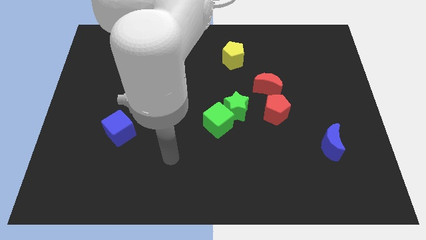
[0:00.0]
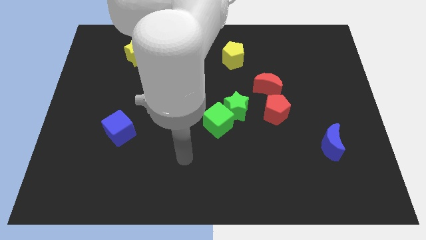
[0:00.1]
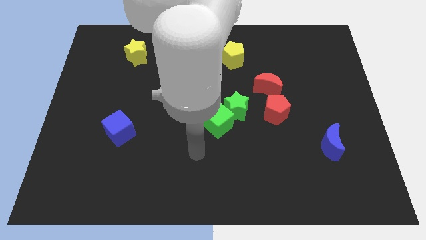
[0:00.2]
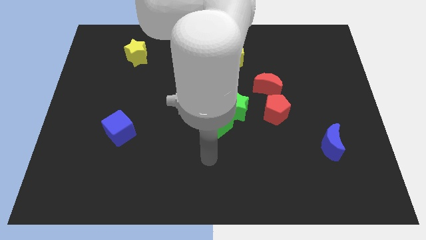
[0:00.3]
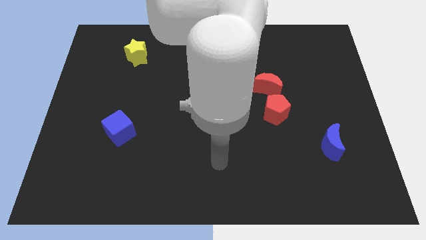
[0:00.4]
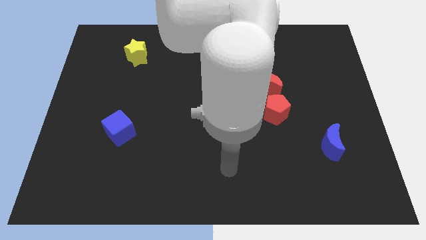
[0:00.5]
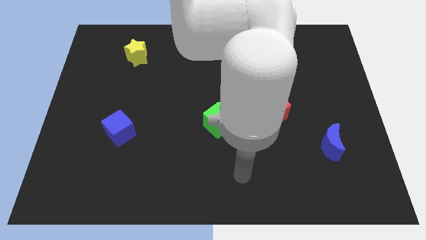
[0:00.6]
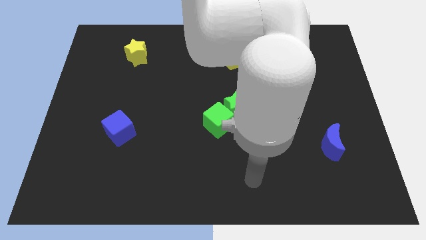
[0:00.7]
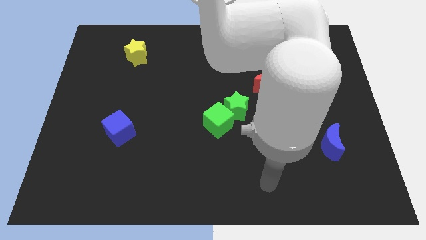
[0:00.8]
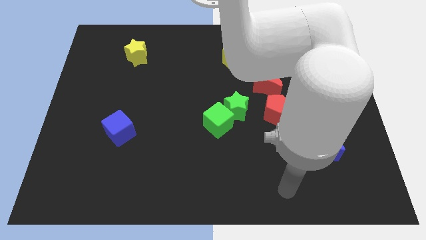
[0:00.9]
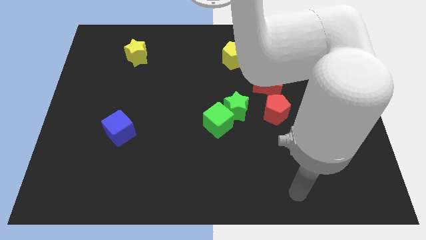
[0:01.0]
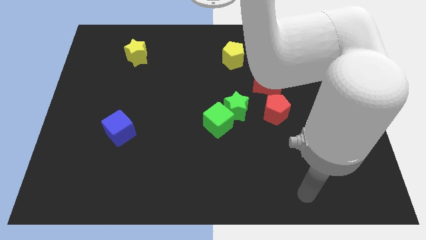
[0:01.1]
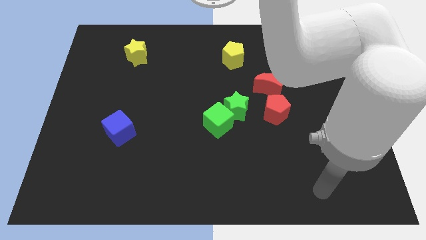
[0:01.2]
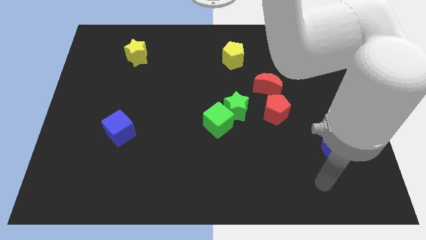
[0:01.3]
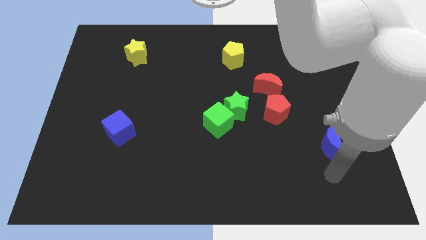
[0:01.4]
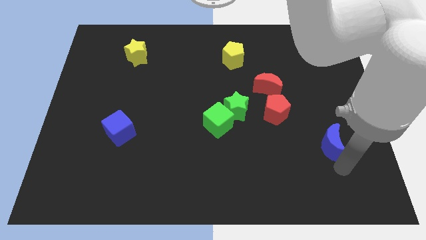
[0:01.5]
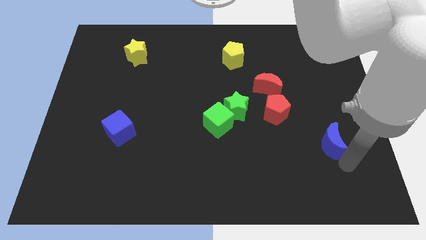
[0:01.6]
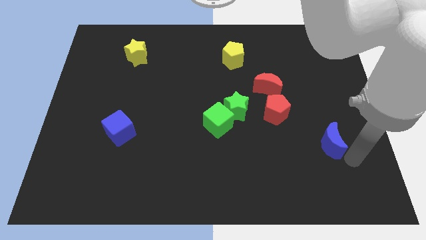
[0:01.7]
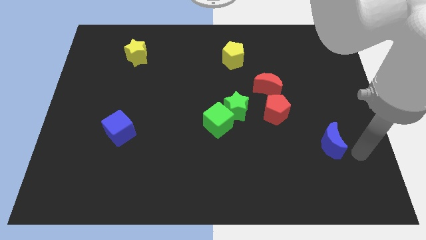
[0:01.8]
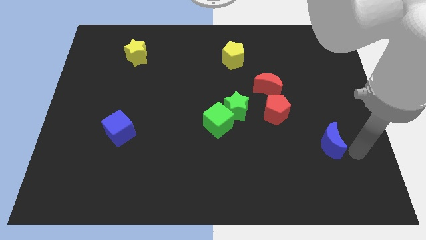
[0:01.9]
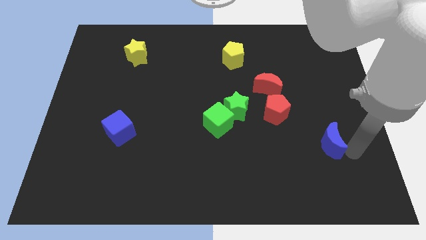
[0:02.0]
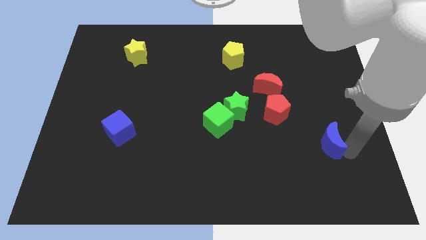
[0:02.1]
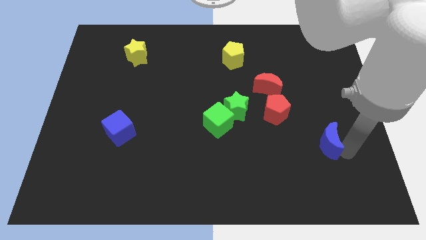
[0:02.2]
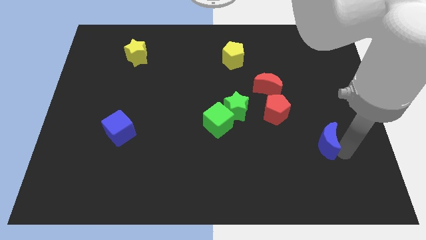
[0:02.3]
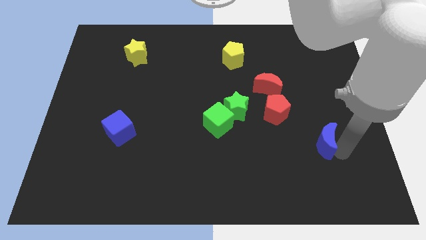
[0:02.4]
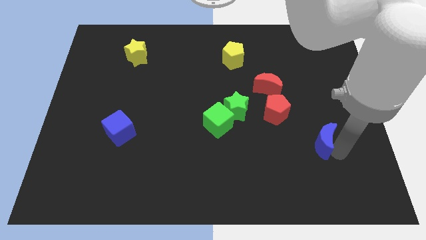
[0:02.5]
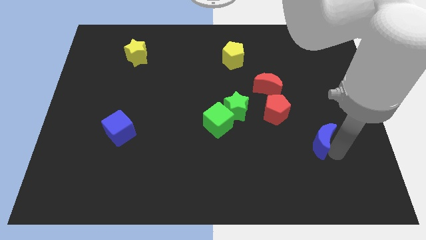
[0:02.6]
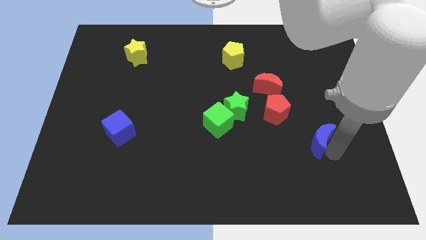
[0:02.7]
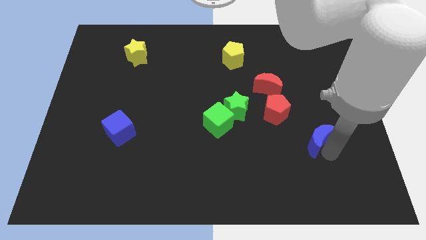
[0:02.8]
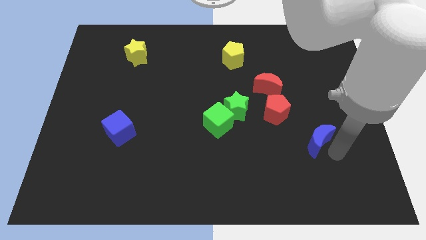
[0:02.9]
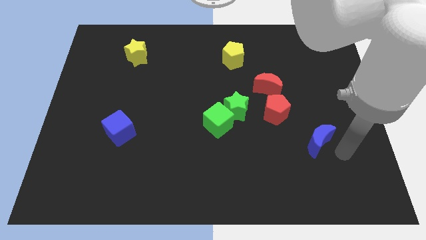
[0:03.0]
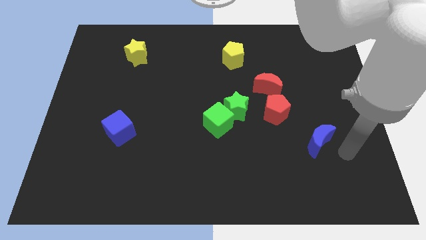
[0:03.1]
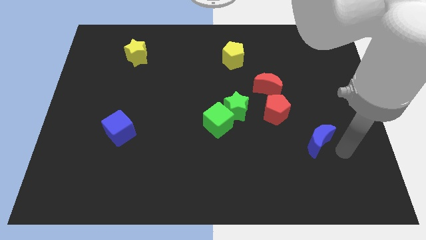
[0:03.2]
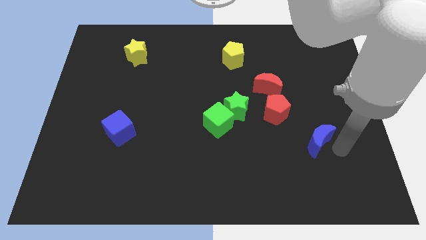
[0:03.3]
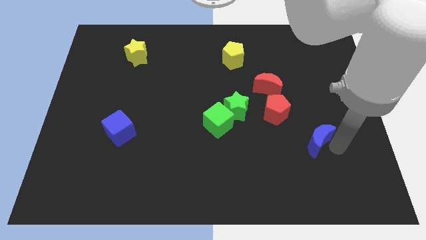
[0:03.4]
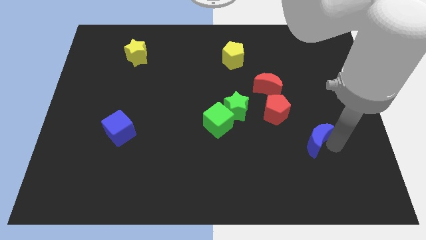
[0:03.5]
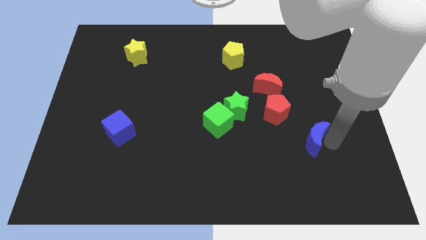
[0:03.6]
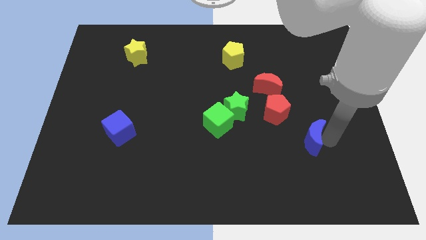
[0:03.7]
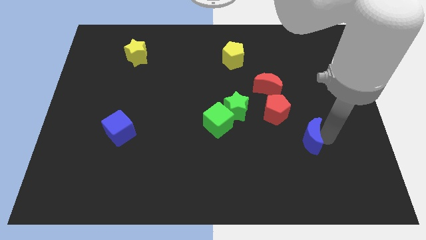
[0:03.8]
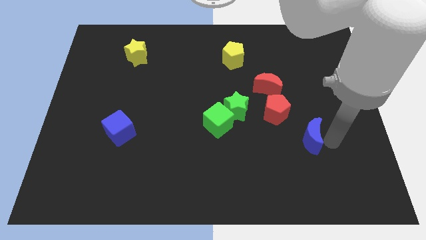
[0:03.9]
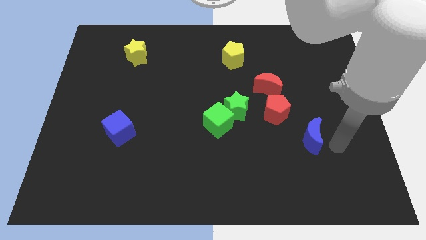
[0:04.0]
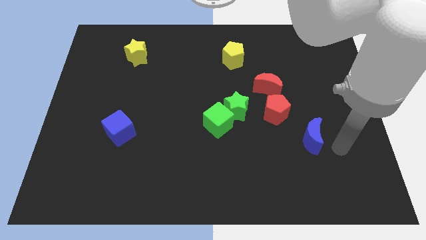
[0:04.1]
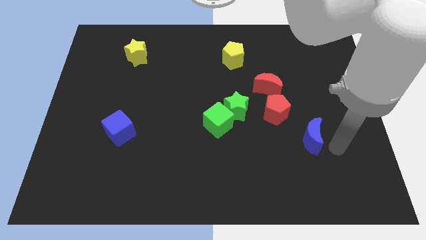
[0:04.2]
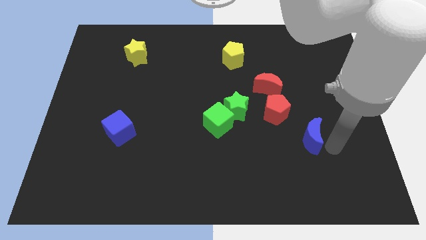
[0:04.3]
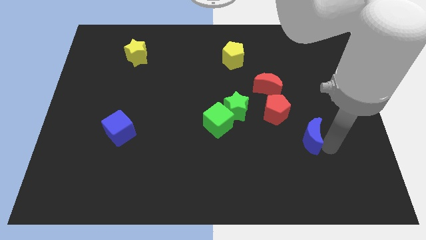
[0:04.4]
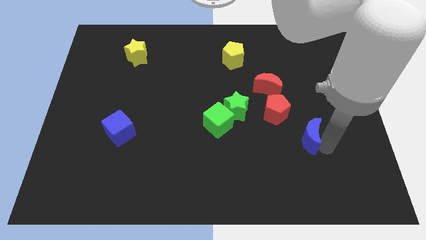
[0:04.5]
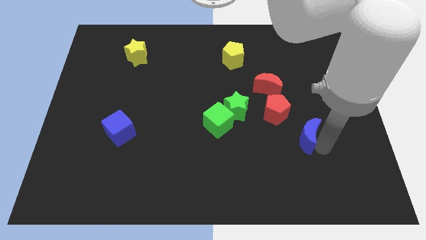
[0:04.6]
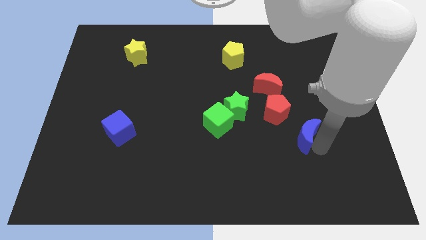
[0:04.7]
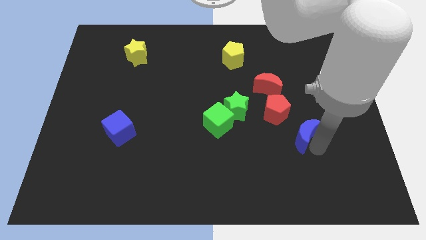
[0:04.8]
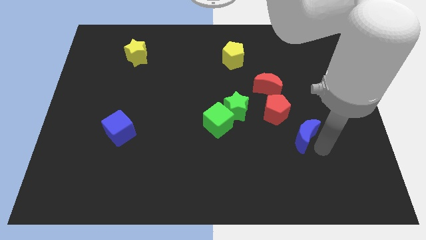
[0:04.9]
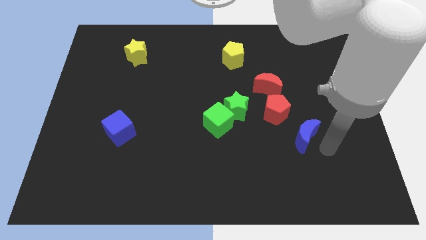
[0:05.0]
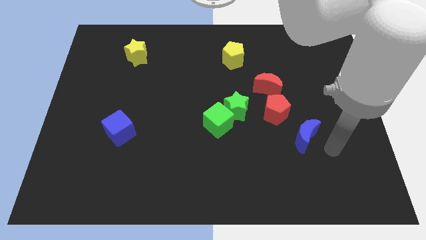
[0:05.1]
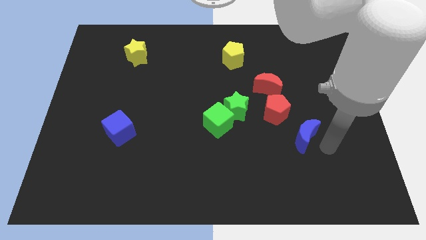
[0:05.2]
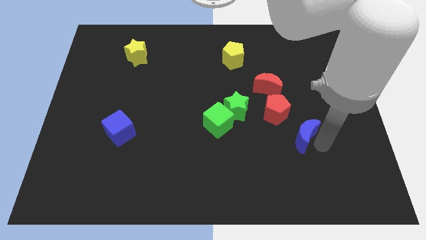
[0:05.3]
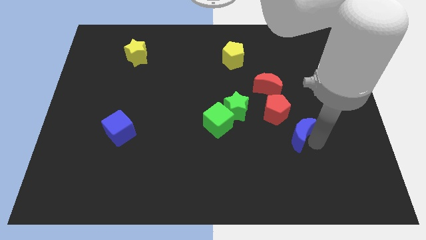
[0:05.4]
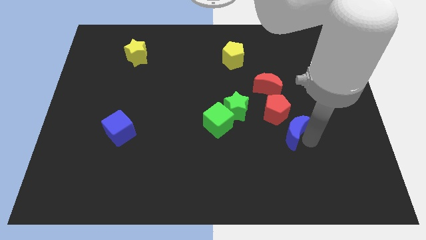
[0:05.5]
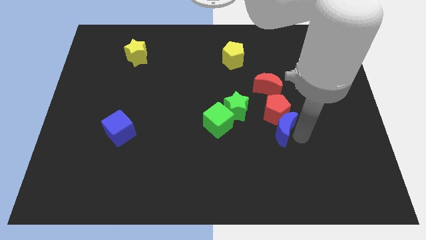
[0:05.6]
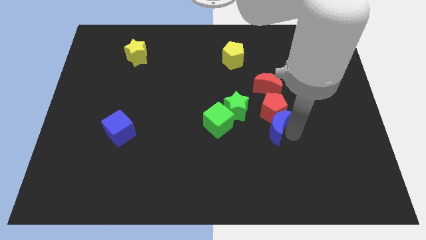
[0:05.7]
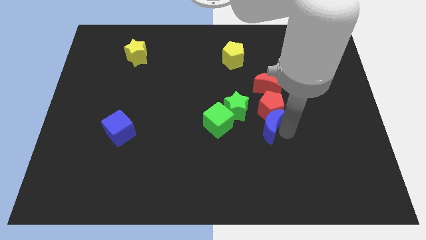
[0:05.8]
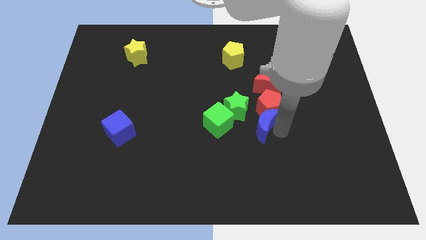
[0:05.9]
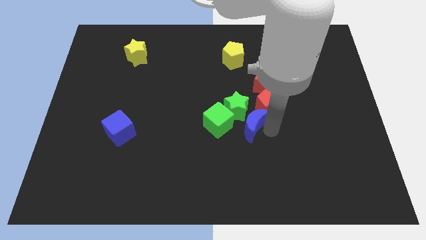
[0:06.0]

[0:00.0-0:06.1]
slide the blue moon close to the green star

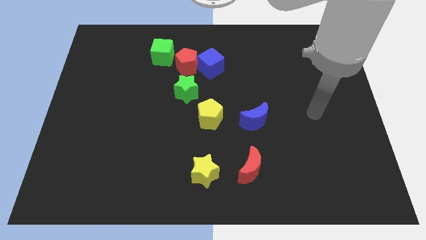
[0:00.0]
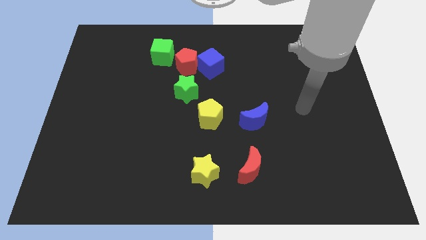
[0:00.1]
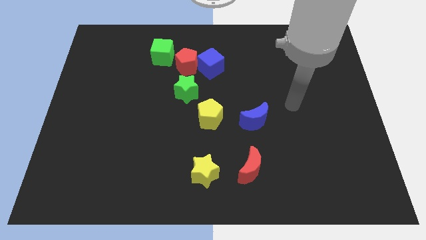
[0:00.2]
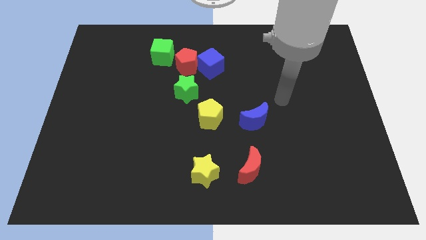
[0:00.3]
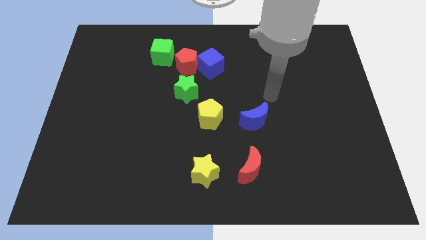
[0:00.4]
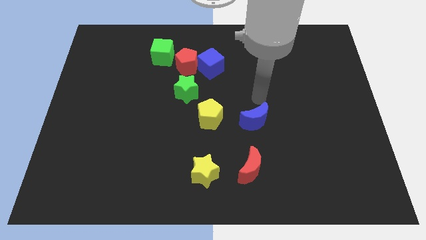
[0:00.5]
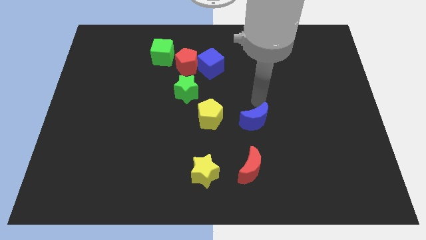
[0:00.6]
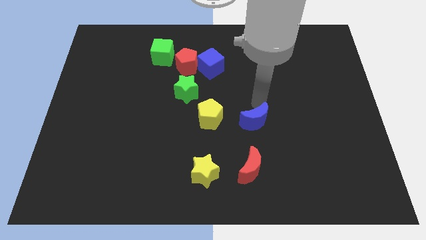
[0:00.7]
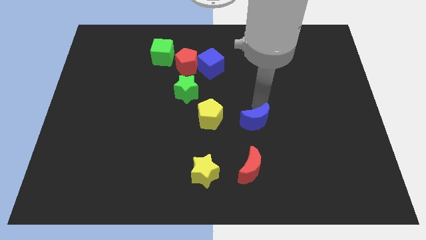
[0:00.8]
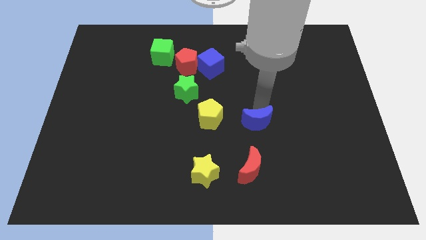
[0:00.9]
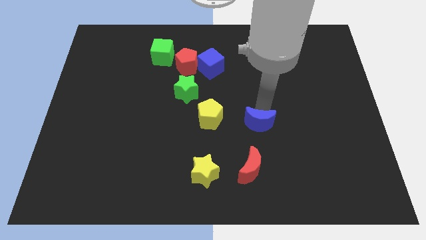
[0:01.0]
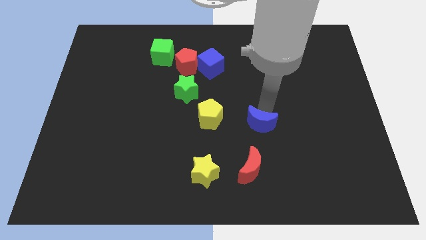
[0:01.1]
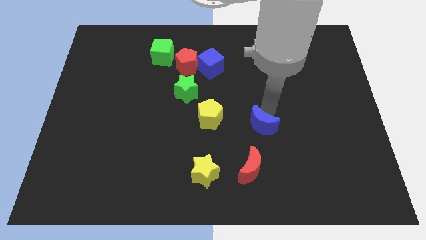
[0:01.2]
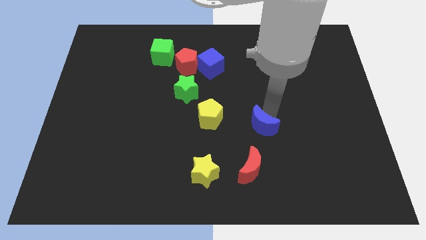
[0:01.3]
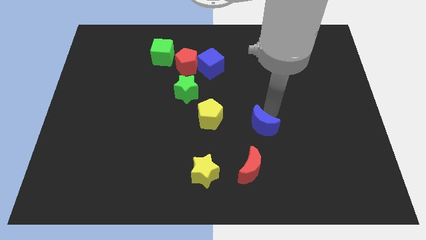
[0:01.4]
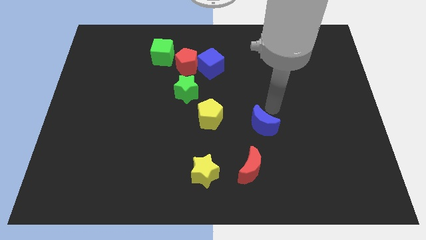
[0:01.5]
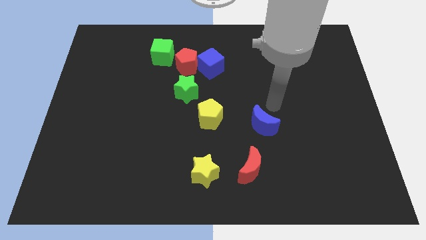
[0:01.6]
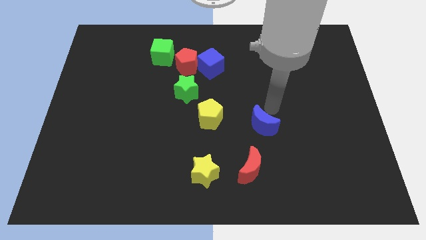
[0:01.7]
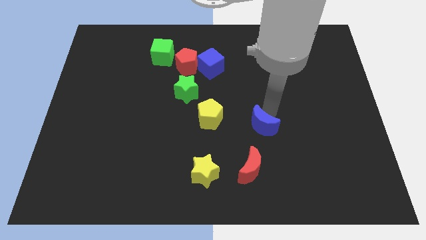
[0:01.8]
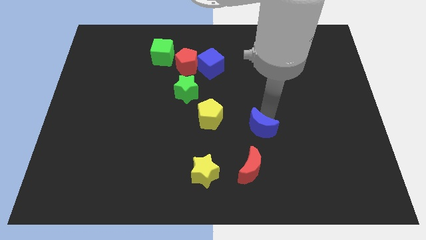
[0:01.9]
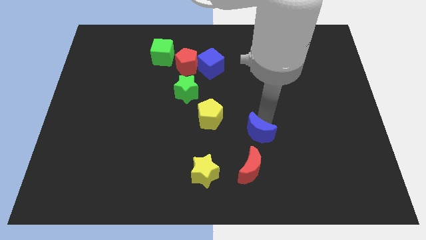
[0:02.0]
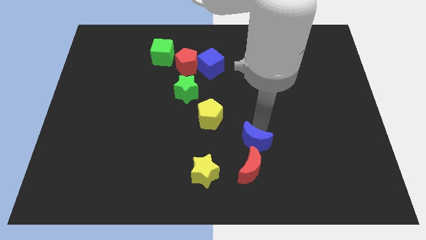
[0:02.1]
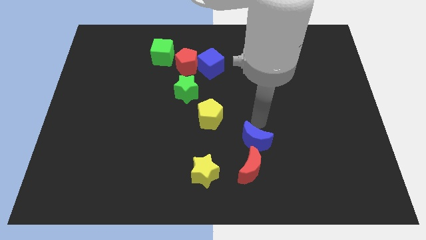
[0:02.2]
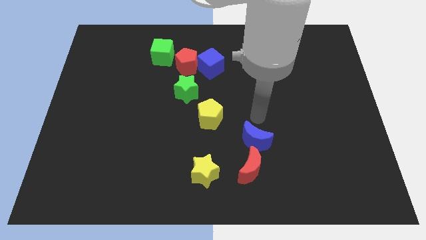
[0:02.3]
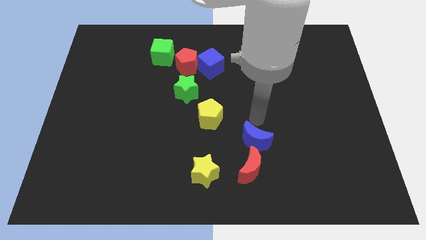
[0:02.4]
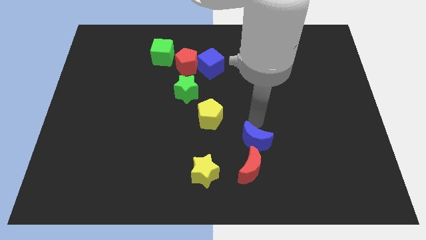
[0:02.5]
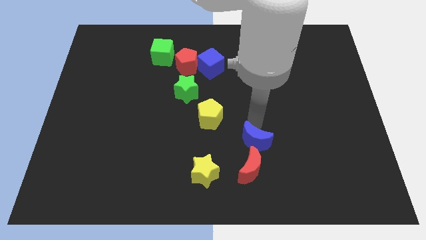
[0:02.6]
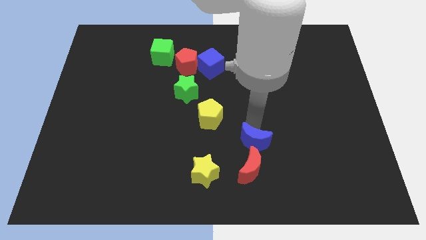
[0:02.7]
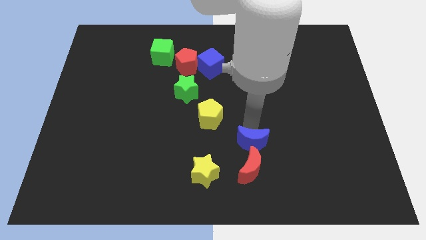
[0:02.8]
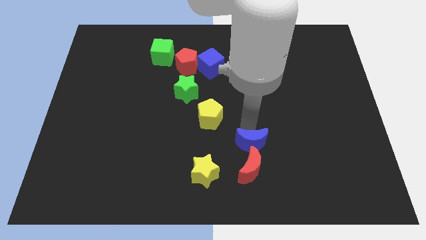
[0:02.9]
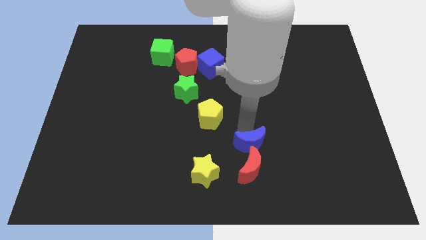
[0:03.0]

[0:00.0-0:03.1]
slide the blue moon next to the red moon
